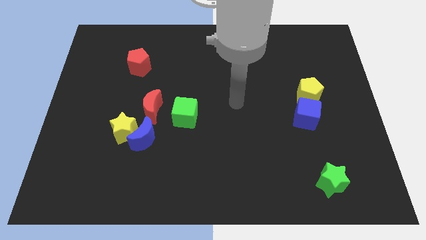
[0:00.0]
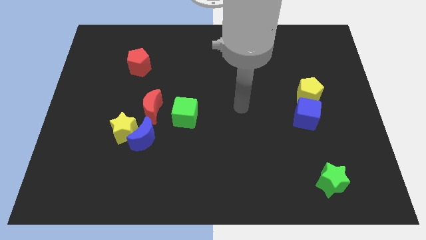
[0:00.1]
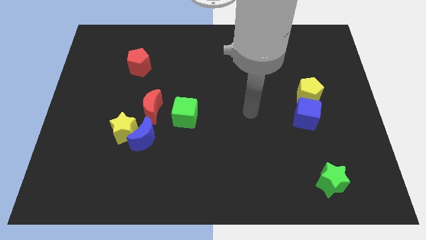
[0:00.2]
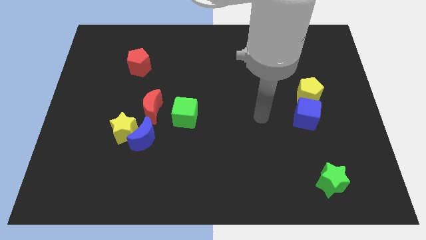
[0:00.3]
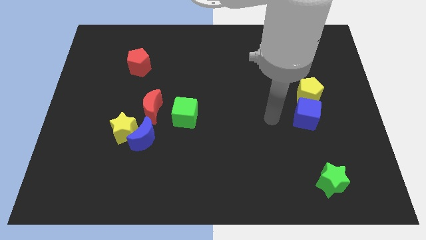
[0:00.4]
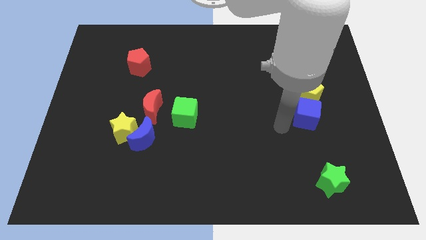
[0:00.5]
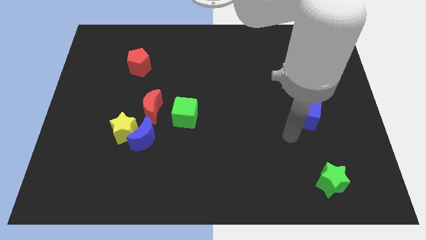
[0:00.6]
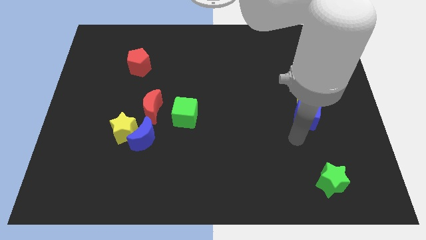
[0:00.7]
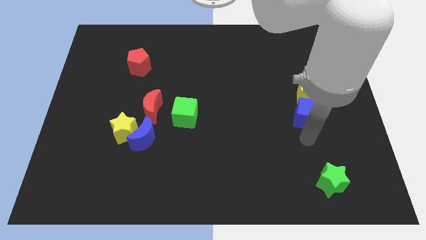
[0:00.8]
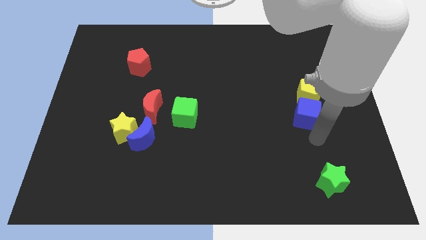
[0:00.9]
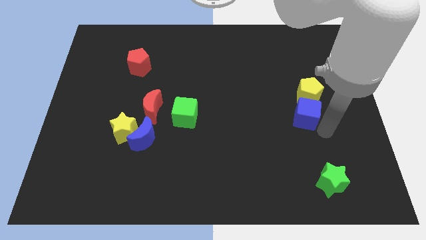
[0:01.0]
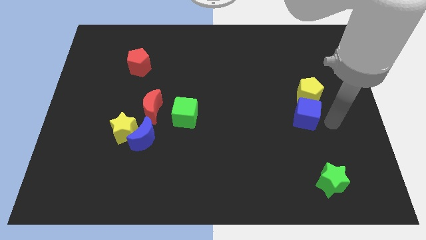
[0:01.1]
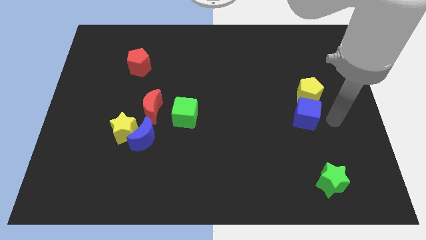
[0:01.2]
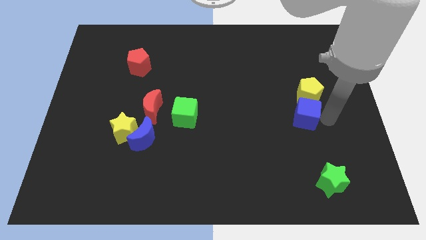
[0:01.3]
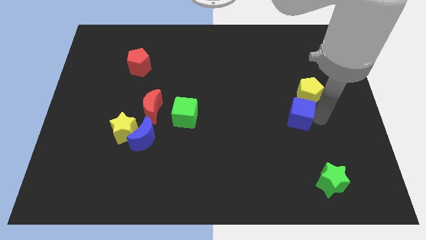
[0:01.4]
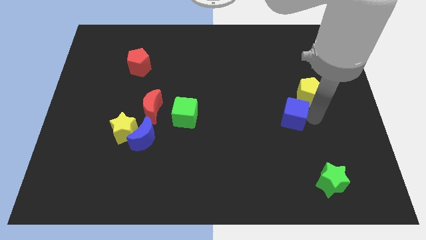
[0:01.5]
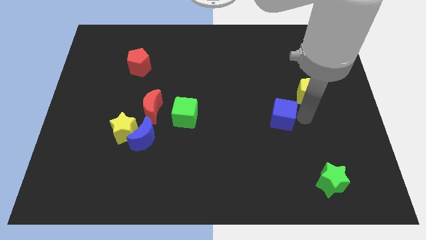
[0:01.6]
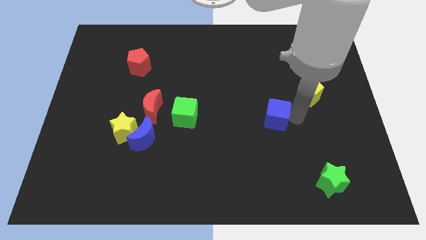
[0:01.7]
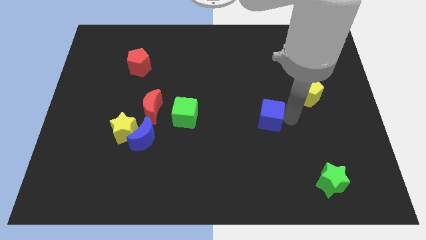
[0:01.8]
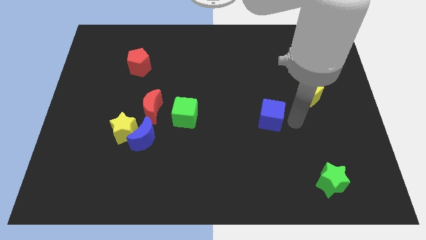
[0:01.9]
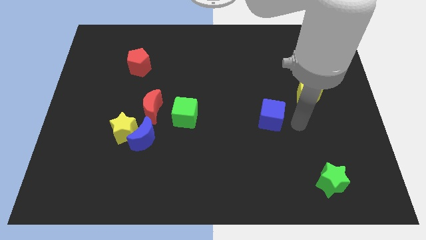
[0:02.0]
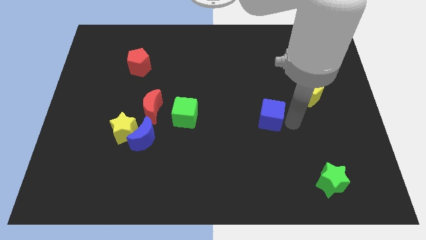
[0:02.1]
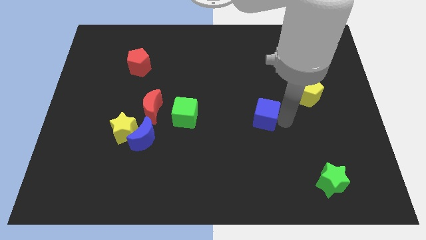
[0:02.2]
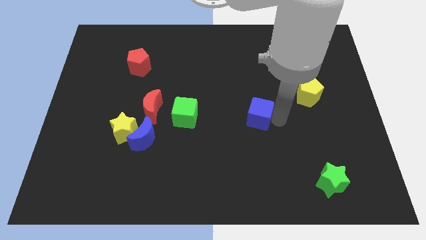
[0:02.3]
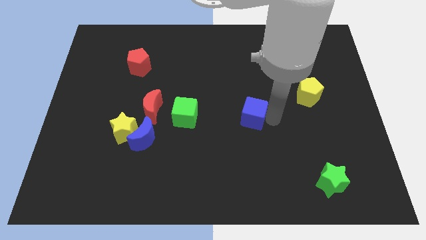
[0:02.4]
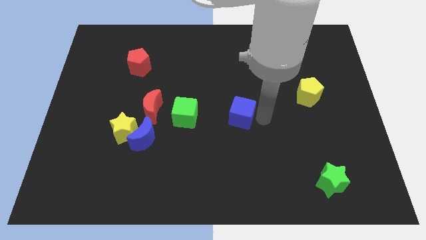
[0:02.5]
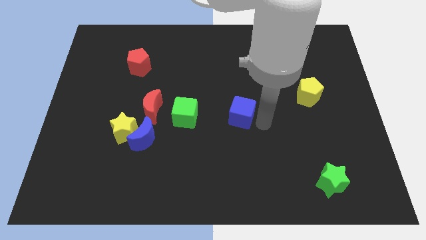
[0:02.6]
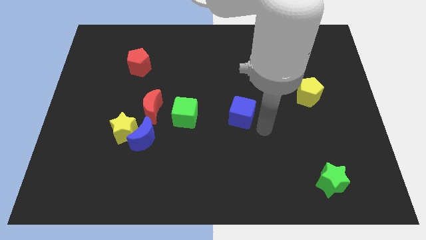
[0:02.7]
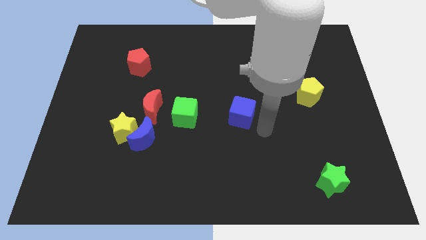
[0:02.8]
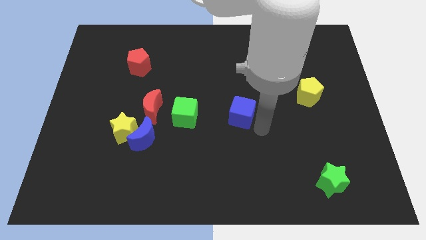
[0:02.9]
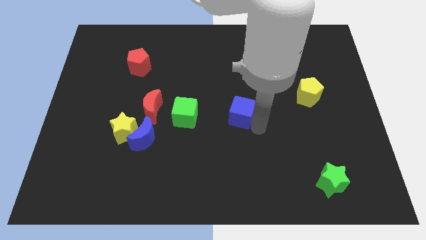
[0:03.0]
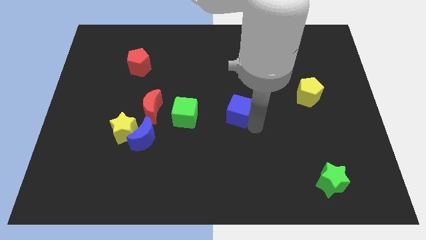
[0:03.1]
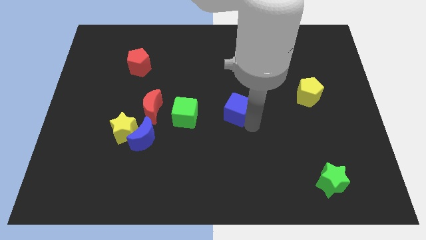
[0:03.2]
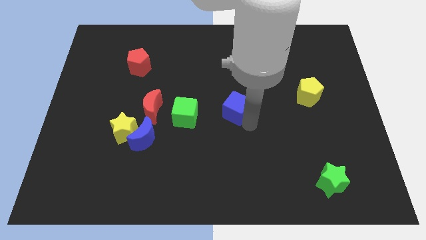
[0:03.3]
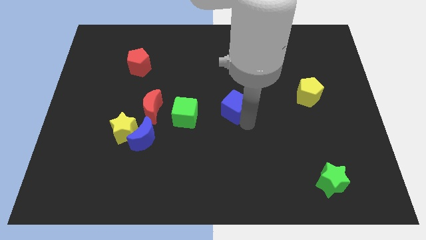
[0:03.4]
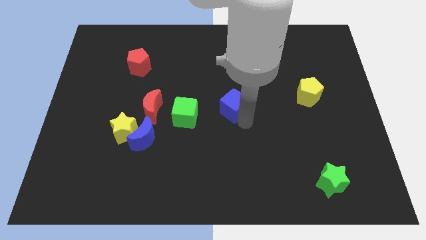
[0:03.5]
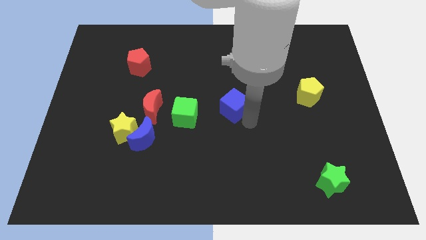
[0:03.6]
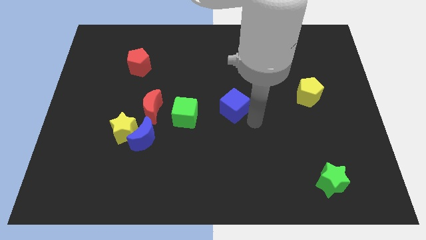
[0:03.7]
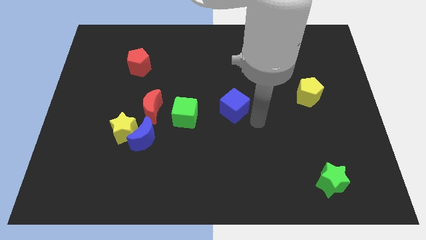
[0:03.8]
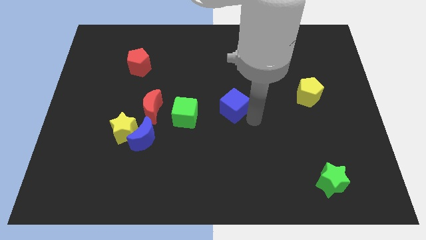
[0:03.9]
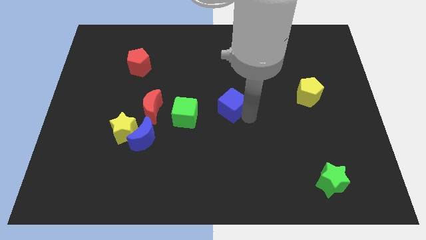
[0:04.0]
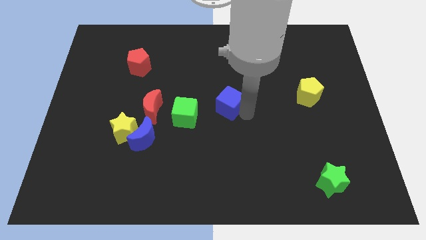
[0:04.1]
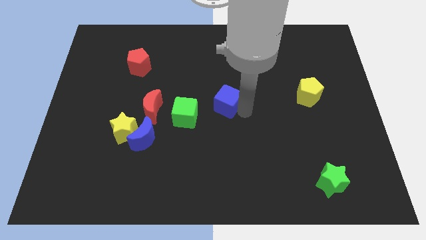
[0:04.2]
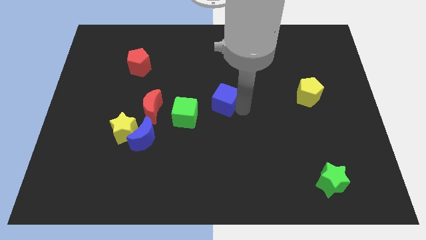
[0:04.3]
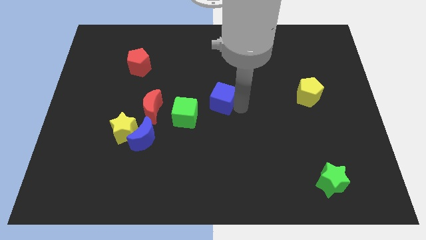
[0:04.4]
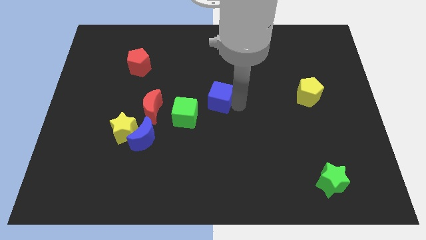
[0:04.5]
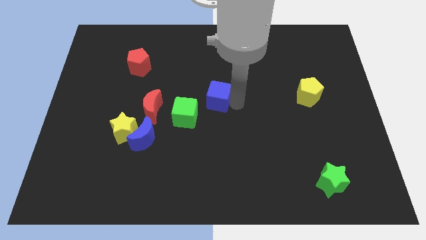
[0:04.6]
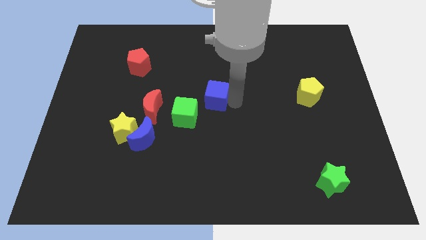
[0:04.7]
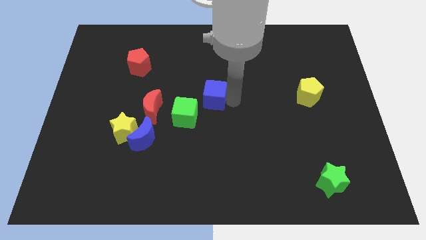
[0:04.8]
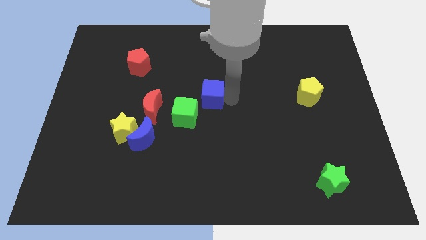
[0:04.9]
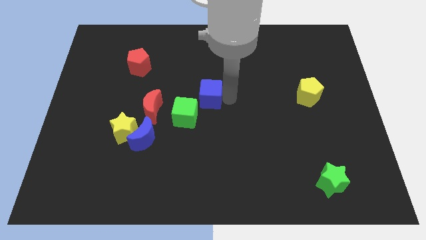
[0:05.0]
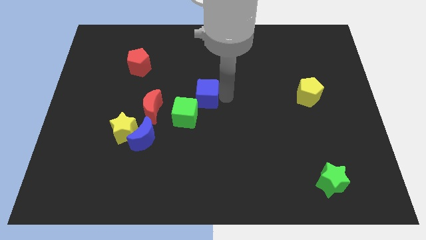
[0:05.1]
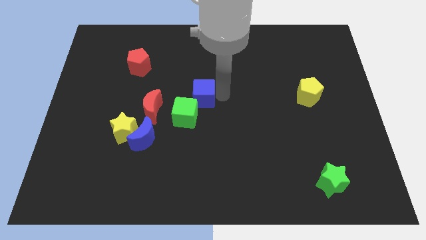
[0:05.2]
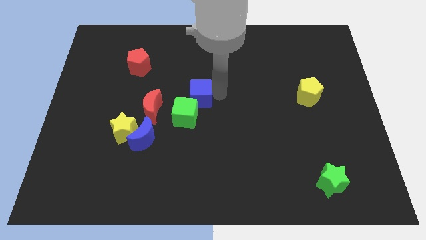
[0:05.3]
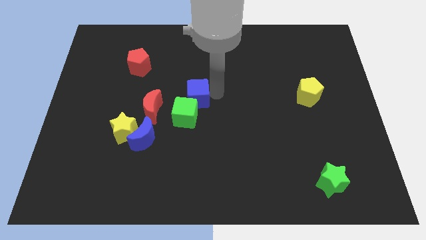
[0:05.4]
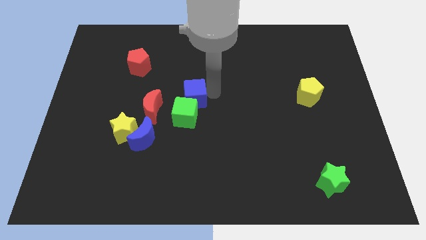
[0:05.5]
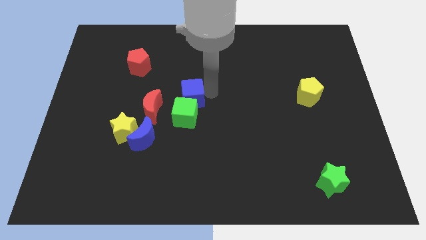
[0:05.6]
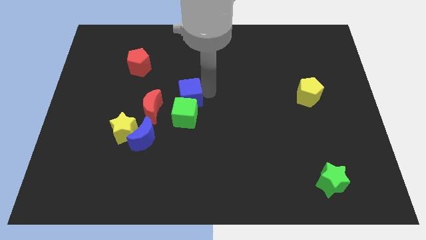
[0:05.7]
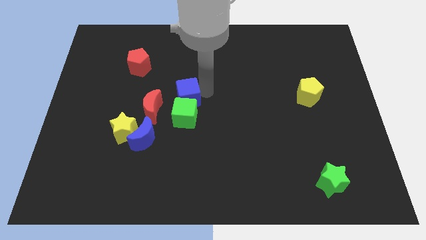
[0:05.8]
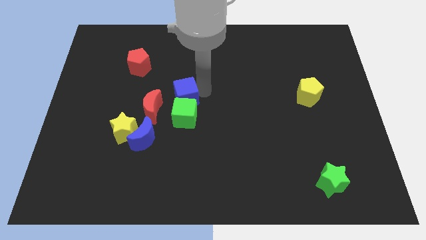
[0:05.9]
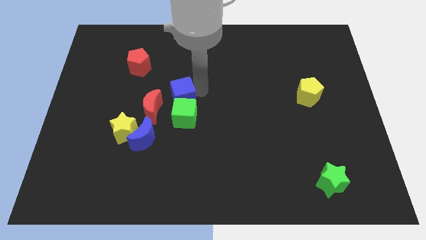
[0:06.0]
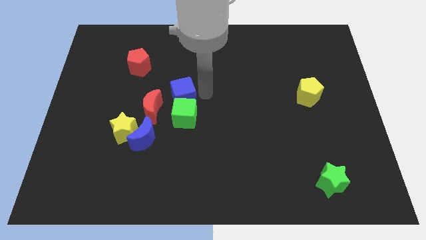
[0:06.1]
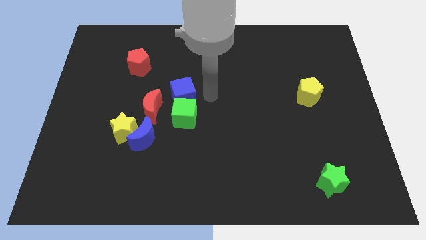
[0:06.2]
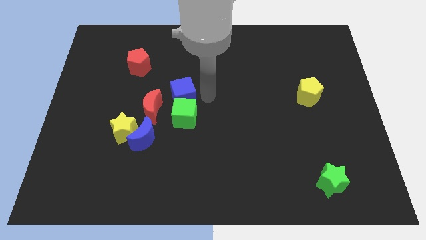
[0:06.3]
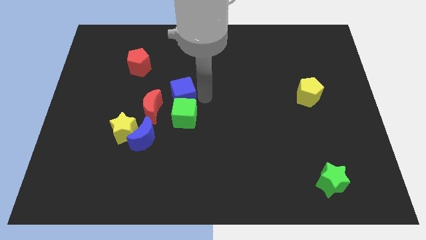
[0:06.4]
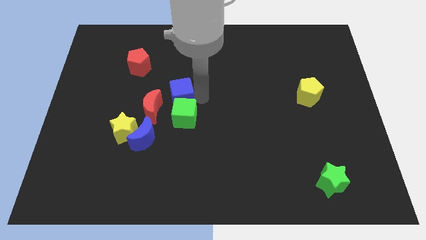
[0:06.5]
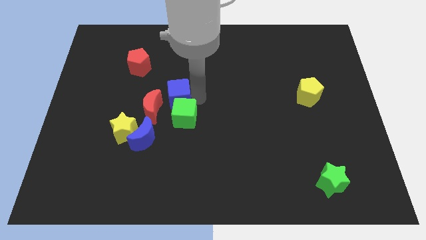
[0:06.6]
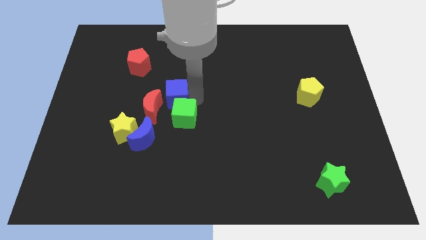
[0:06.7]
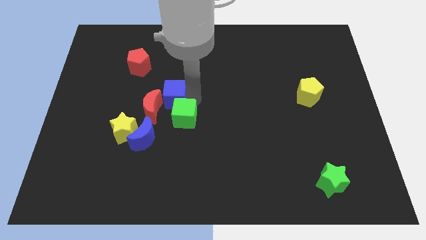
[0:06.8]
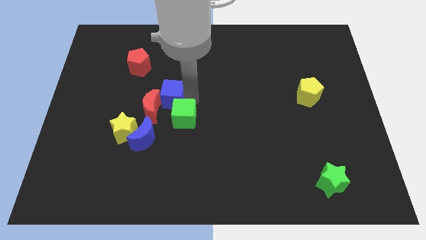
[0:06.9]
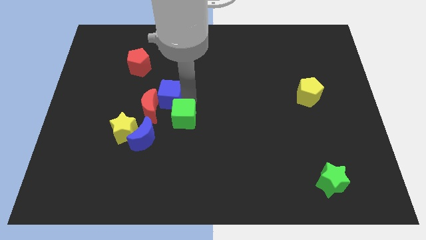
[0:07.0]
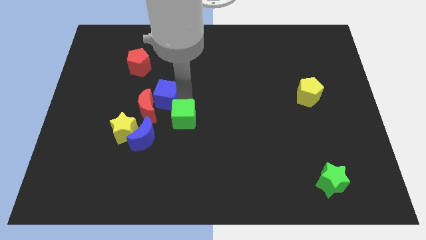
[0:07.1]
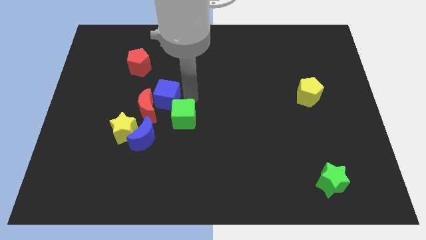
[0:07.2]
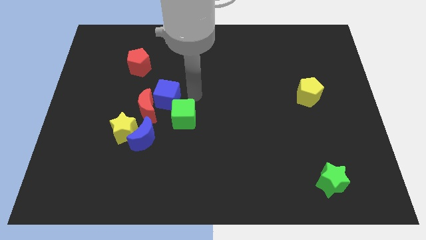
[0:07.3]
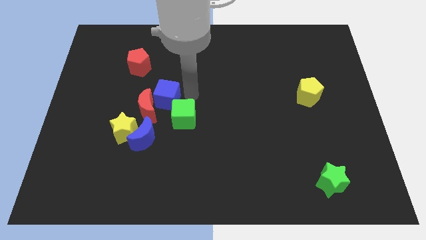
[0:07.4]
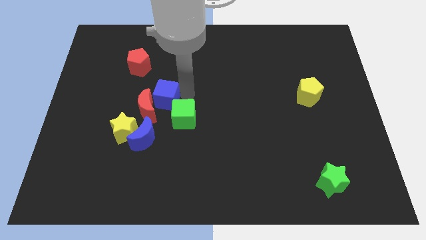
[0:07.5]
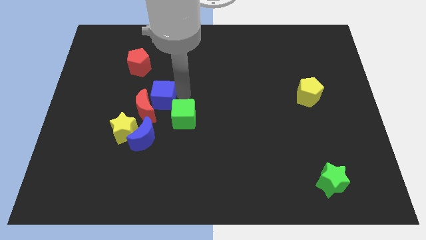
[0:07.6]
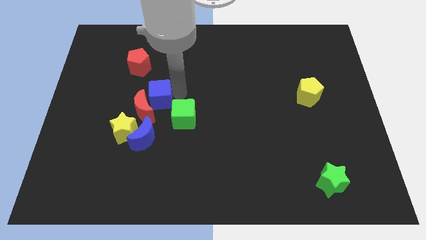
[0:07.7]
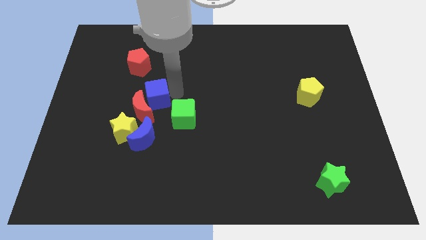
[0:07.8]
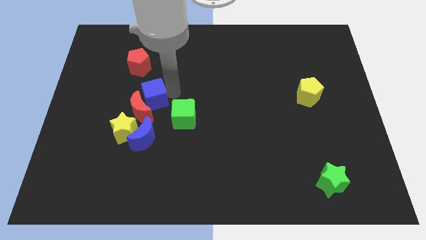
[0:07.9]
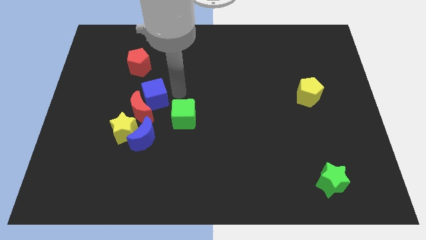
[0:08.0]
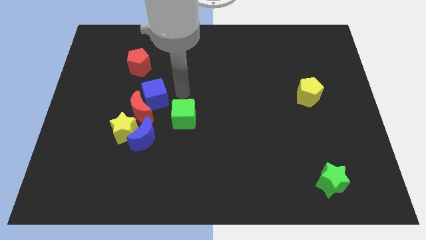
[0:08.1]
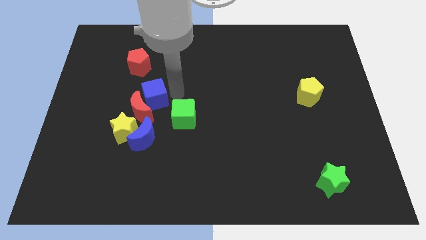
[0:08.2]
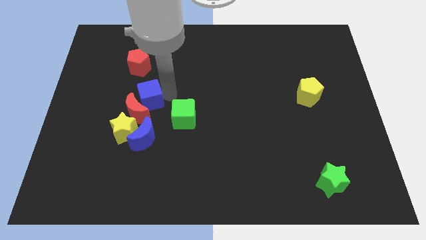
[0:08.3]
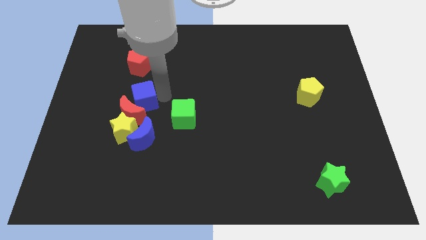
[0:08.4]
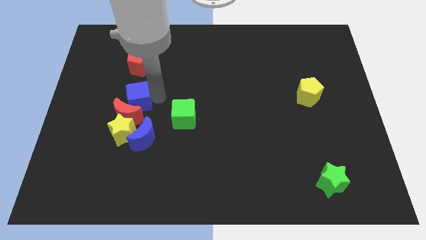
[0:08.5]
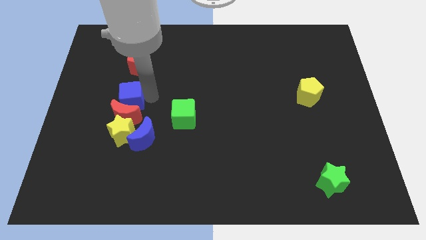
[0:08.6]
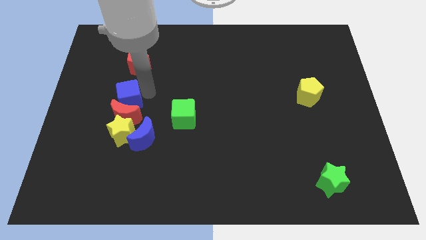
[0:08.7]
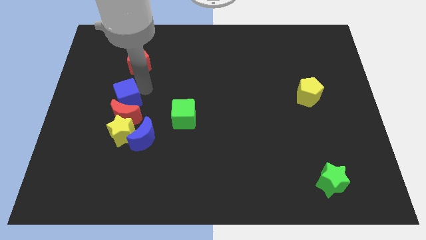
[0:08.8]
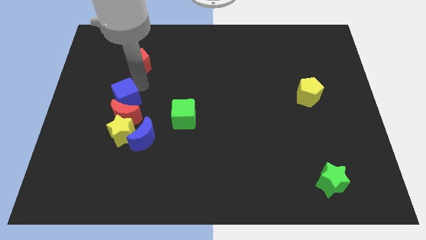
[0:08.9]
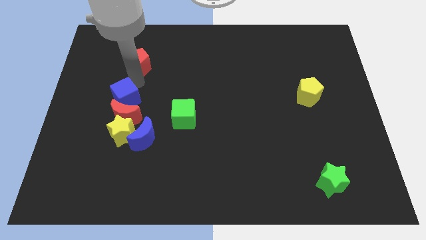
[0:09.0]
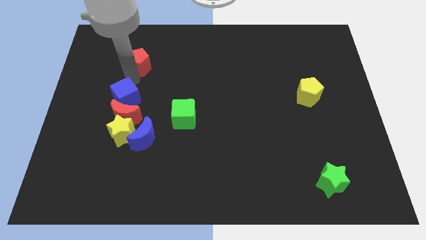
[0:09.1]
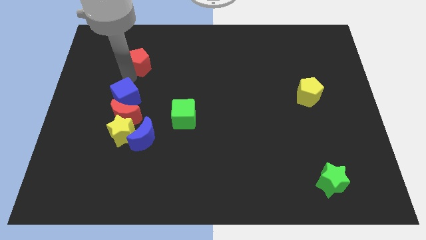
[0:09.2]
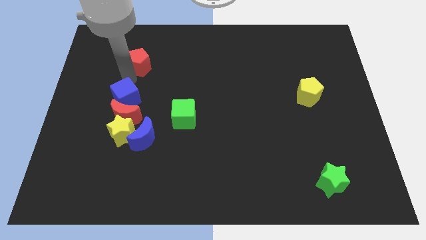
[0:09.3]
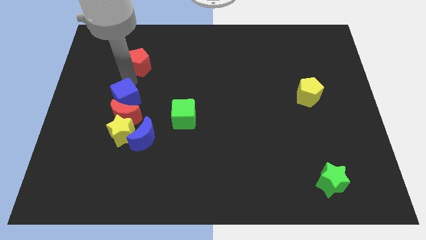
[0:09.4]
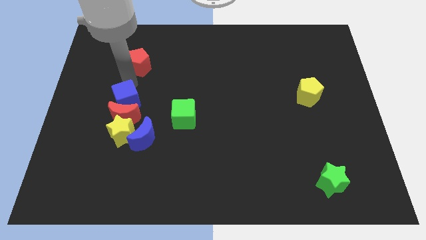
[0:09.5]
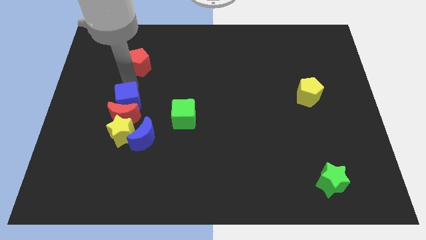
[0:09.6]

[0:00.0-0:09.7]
push the blue cube to the top left of the blue moon
